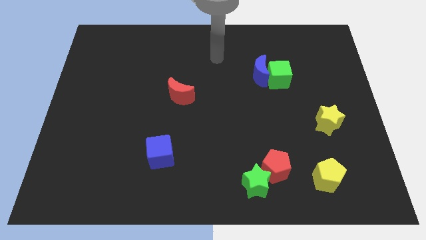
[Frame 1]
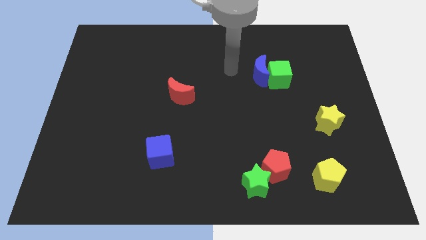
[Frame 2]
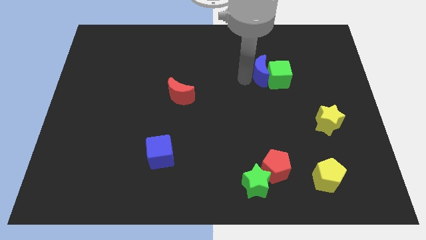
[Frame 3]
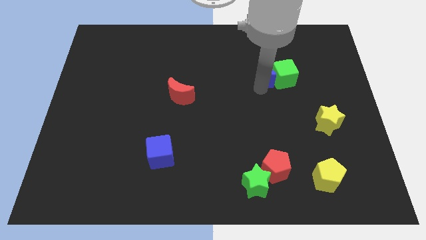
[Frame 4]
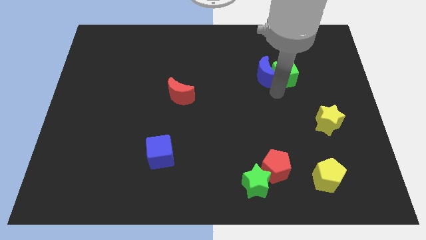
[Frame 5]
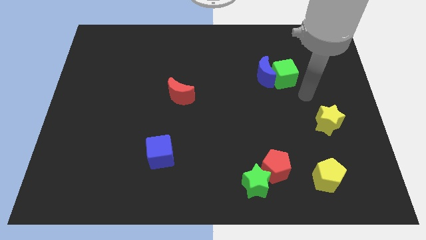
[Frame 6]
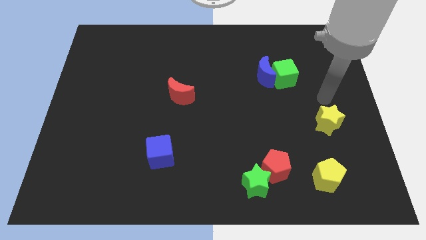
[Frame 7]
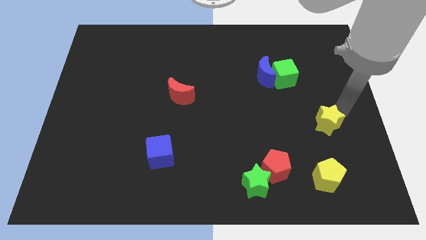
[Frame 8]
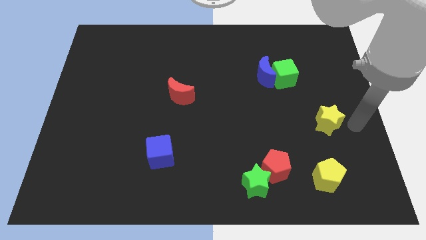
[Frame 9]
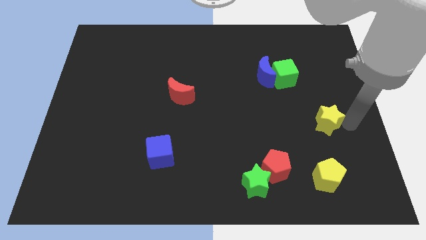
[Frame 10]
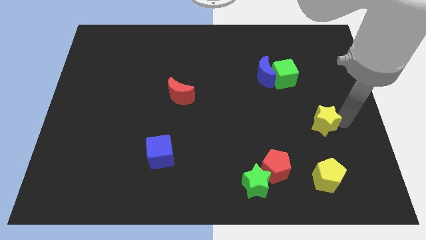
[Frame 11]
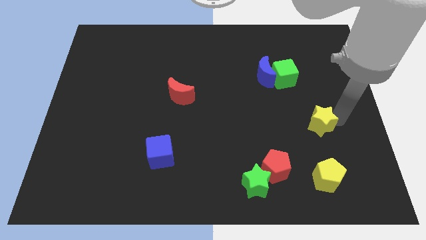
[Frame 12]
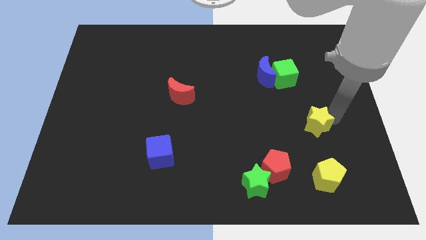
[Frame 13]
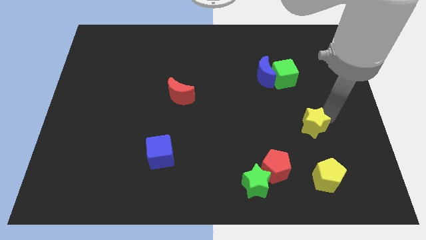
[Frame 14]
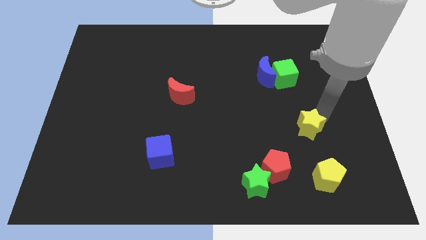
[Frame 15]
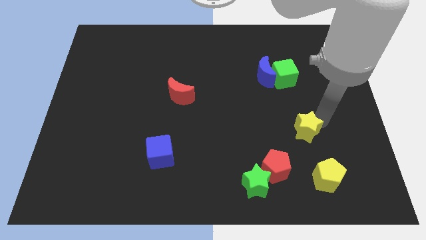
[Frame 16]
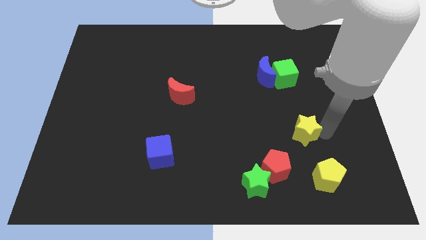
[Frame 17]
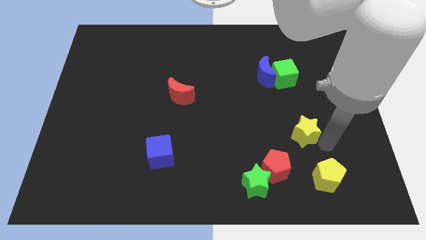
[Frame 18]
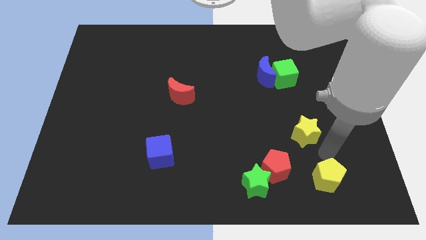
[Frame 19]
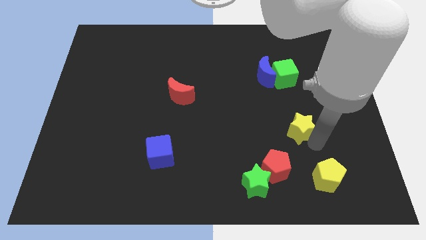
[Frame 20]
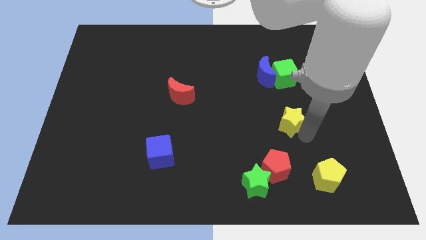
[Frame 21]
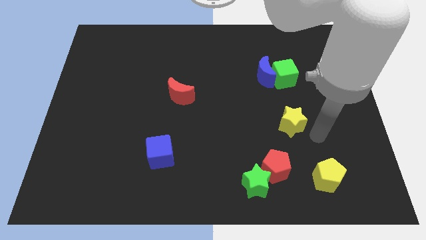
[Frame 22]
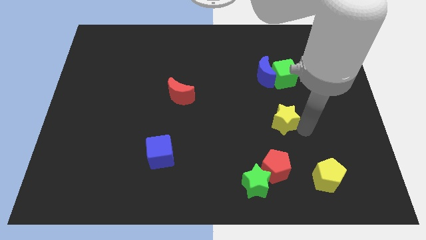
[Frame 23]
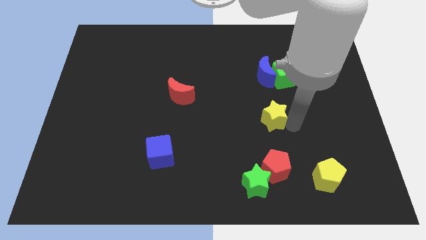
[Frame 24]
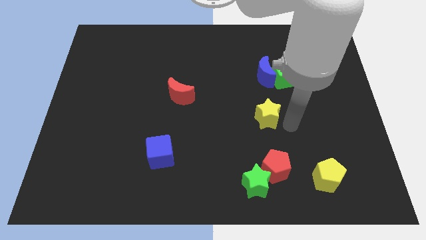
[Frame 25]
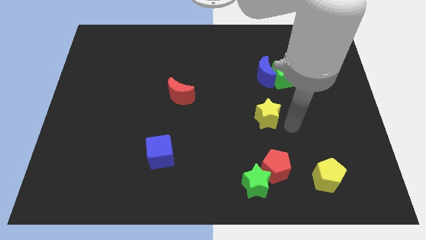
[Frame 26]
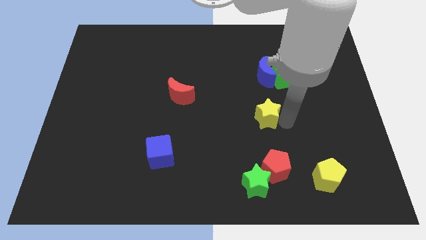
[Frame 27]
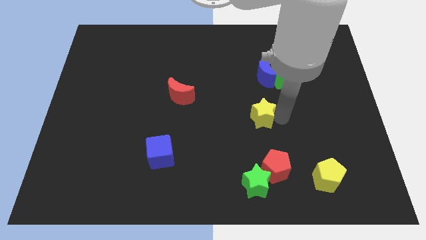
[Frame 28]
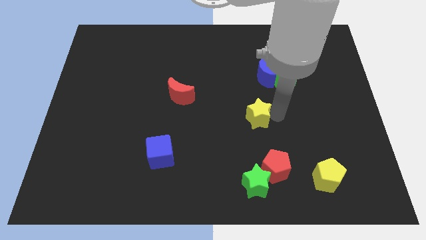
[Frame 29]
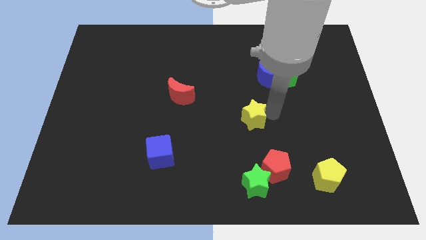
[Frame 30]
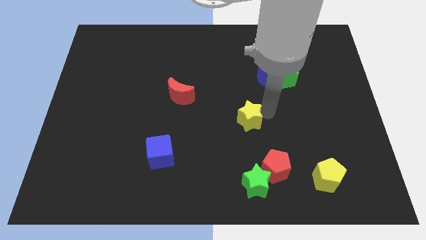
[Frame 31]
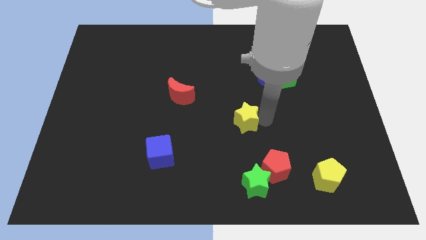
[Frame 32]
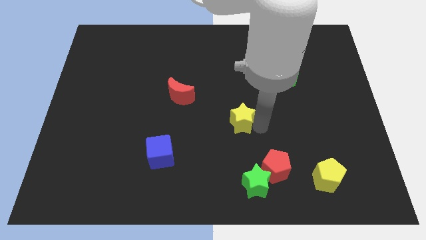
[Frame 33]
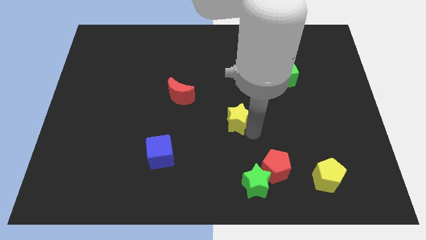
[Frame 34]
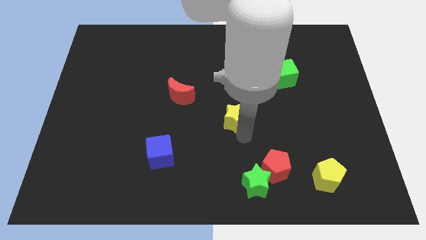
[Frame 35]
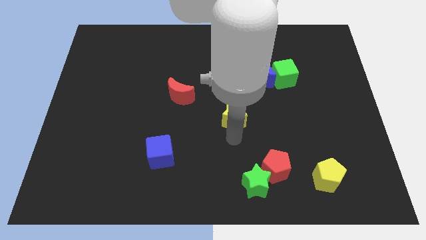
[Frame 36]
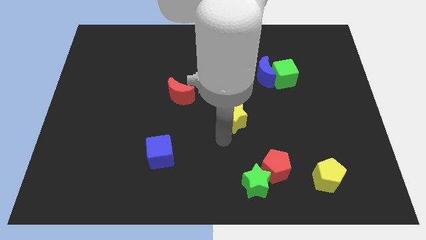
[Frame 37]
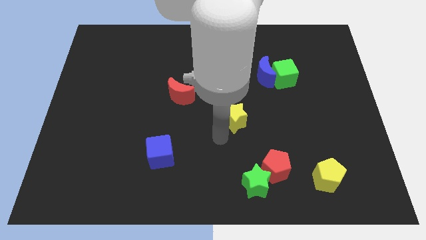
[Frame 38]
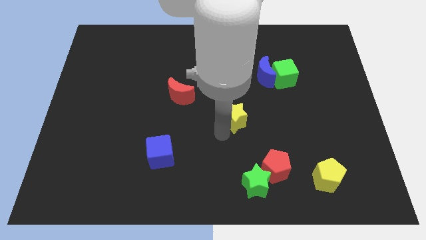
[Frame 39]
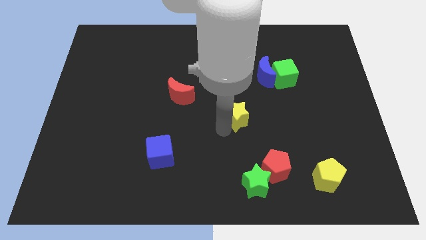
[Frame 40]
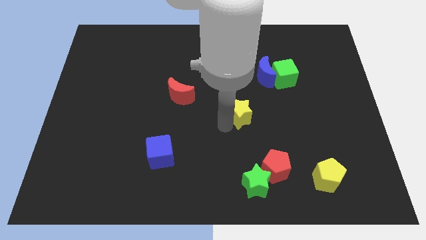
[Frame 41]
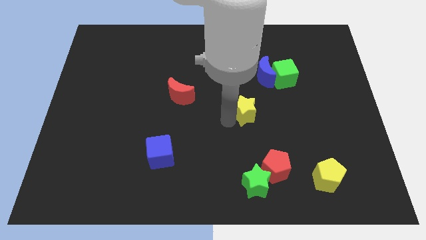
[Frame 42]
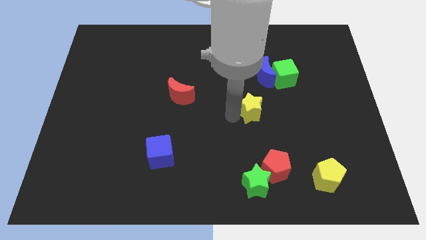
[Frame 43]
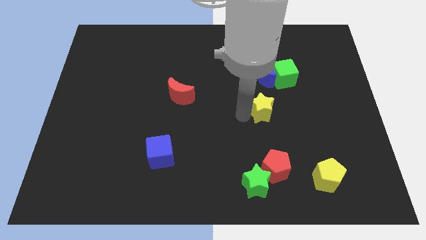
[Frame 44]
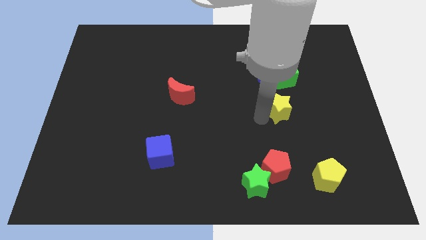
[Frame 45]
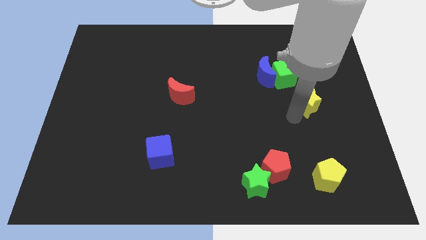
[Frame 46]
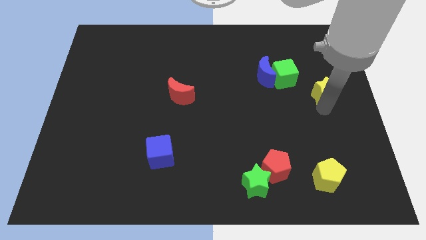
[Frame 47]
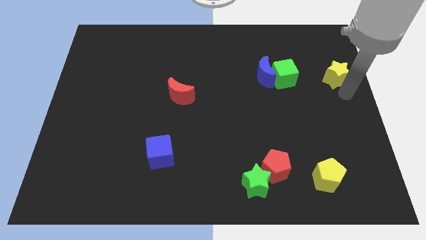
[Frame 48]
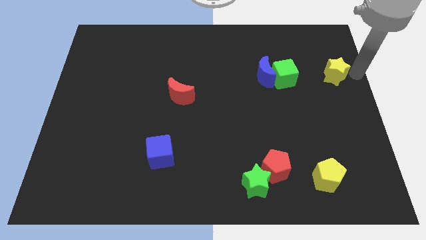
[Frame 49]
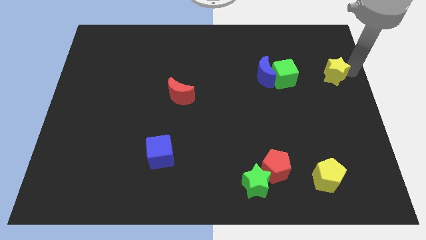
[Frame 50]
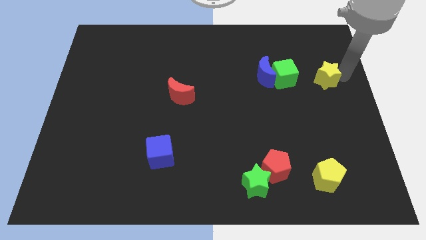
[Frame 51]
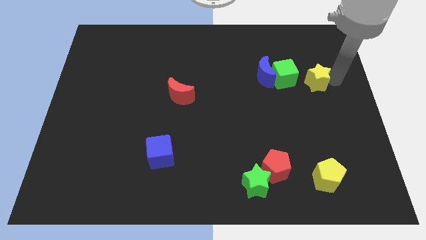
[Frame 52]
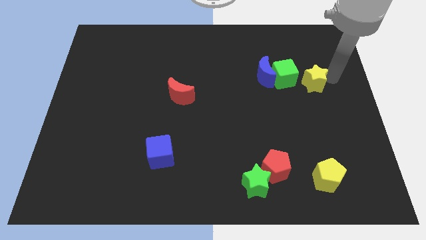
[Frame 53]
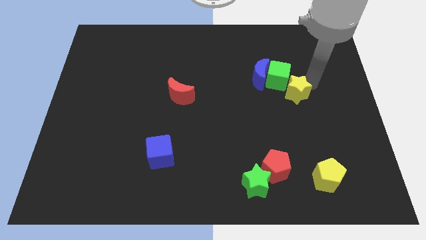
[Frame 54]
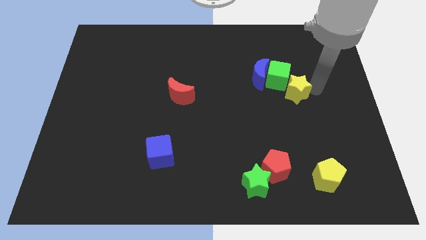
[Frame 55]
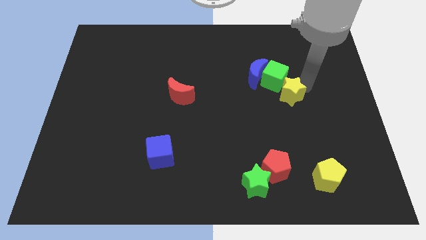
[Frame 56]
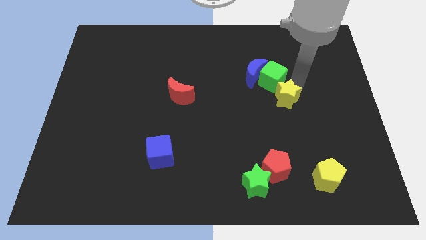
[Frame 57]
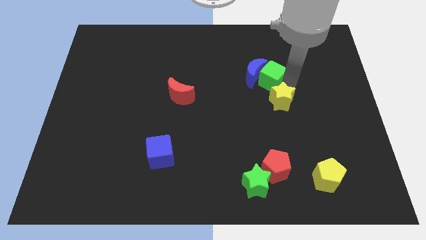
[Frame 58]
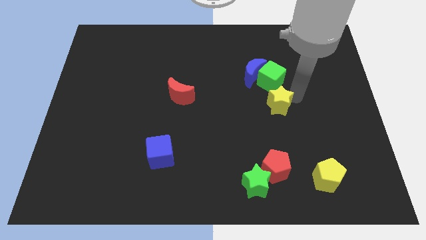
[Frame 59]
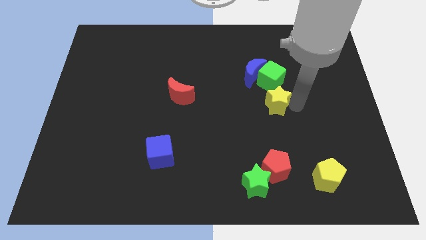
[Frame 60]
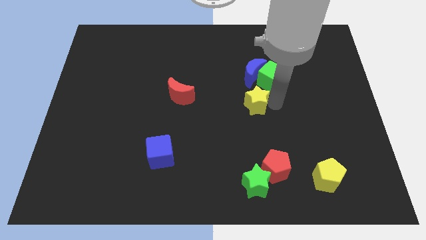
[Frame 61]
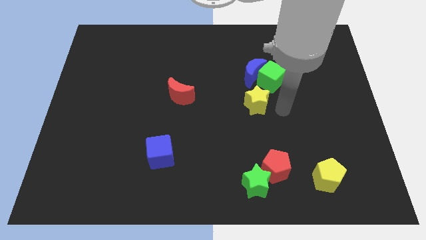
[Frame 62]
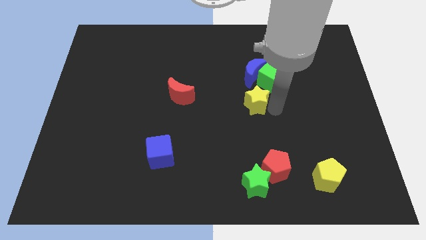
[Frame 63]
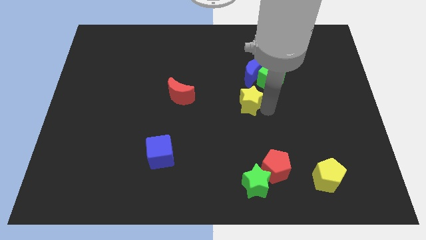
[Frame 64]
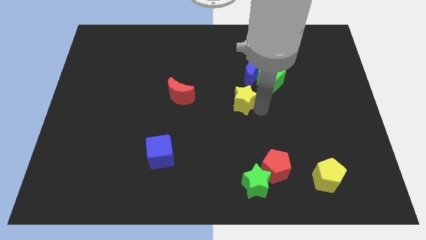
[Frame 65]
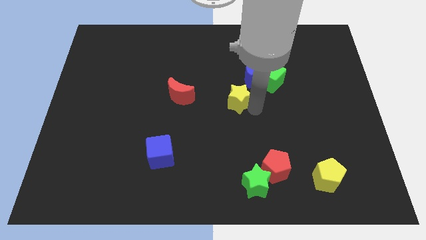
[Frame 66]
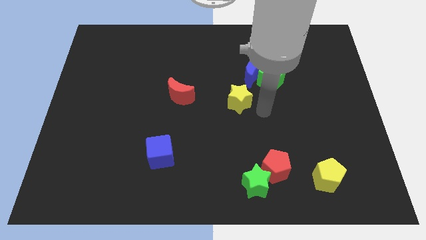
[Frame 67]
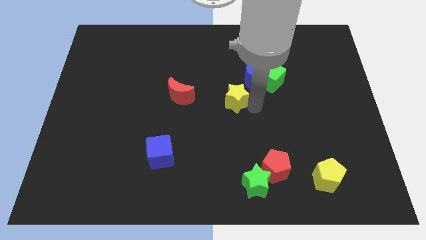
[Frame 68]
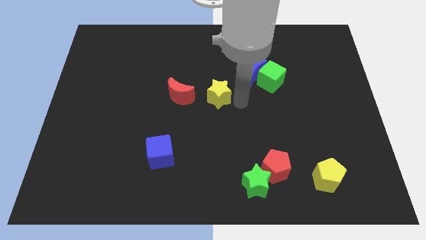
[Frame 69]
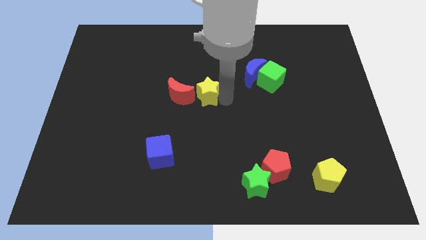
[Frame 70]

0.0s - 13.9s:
slide the yellow star to the top right side of the red moon
